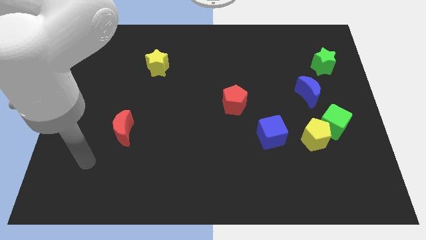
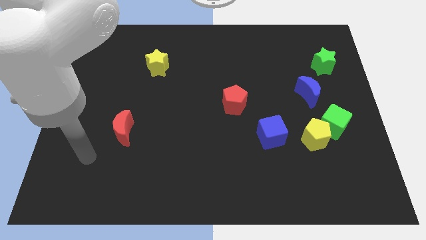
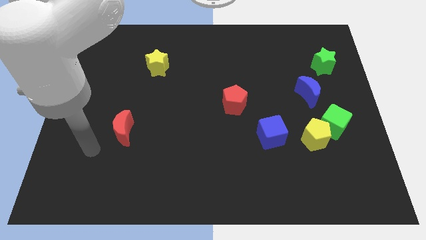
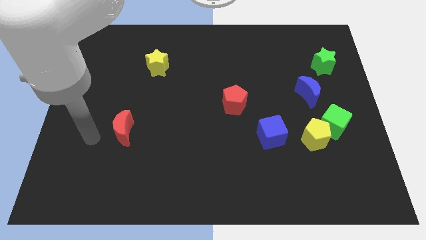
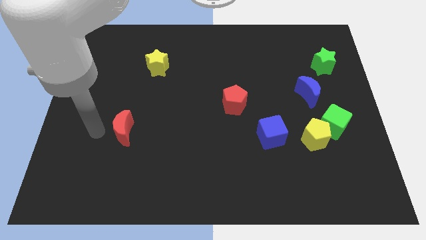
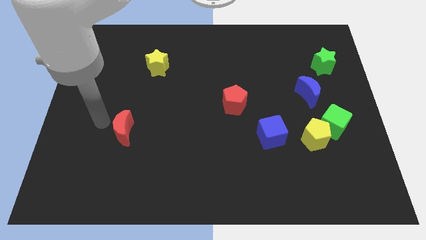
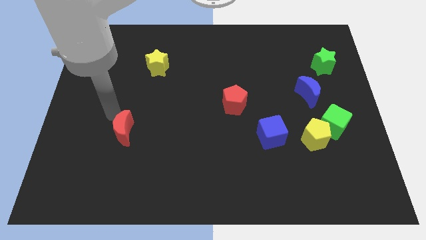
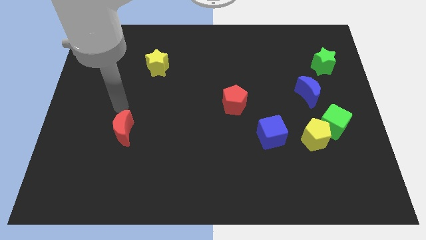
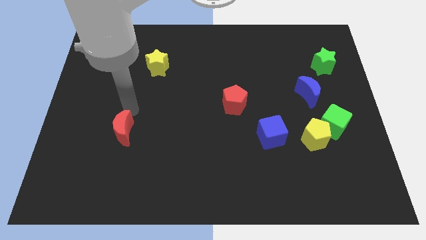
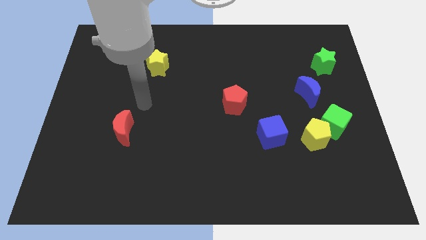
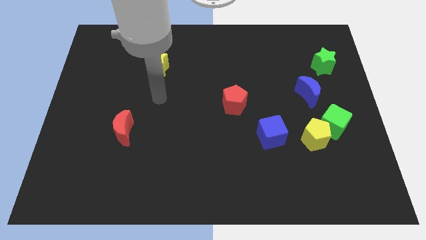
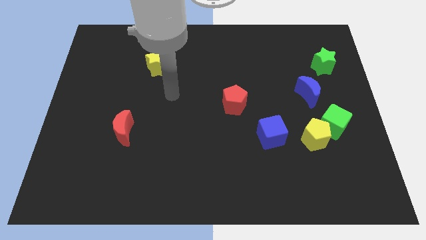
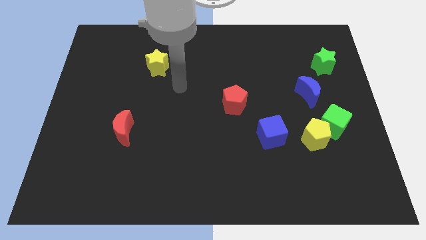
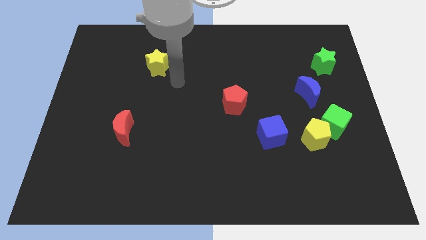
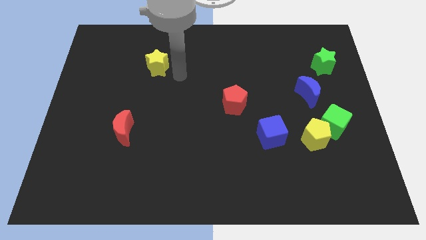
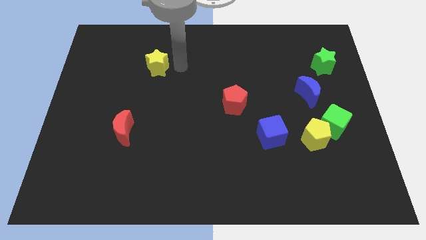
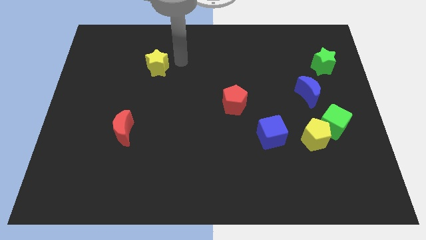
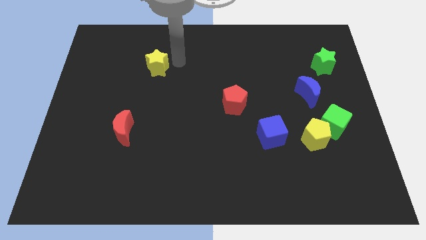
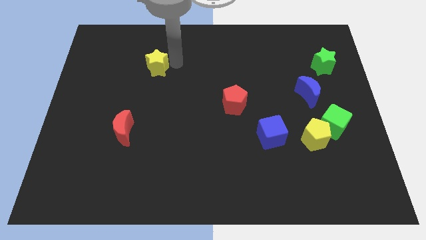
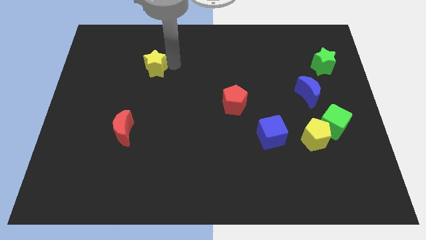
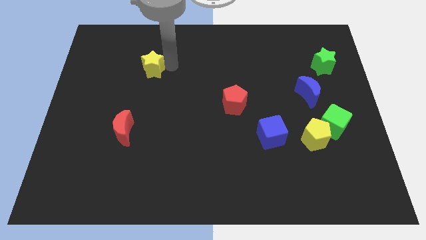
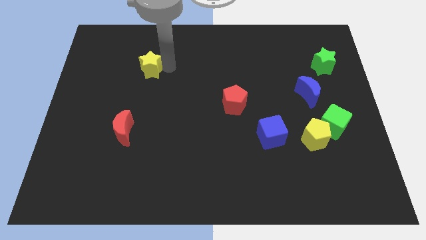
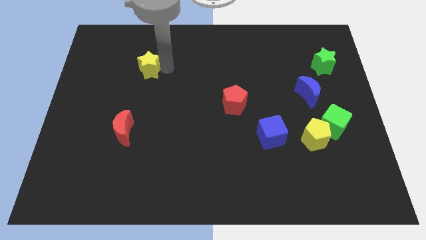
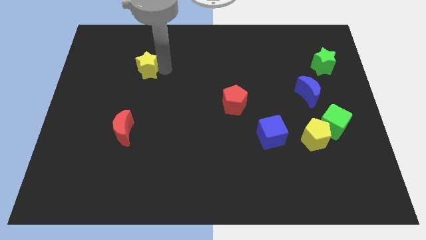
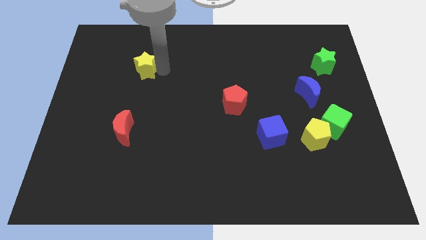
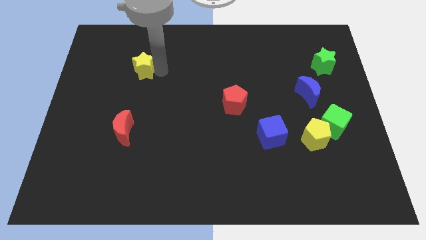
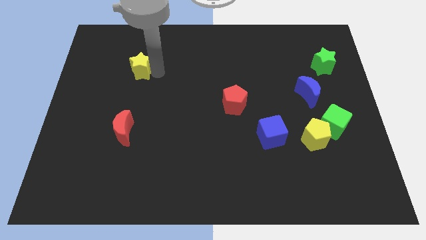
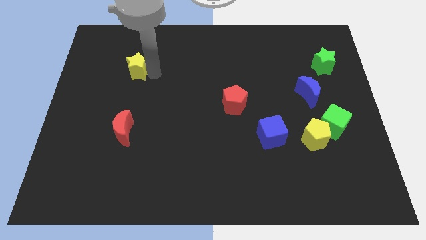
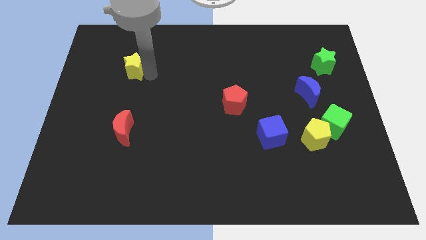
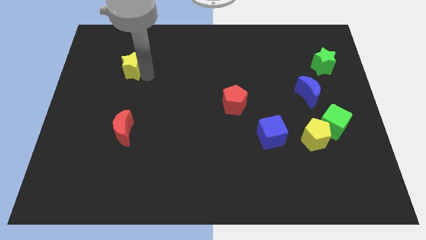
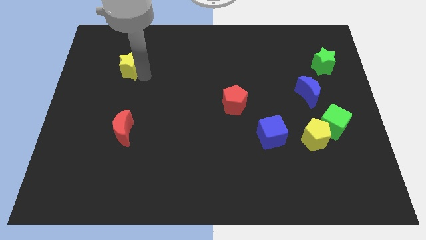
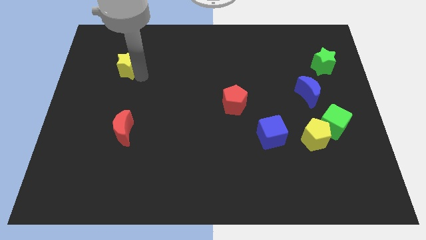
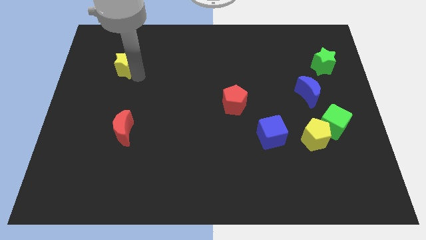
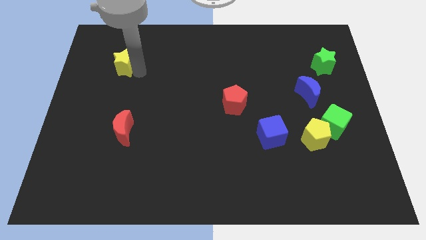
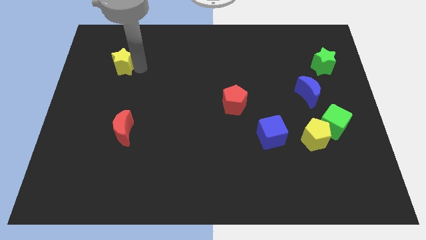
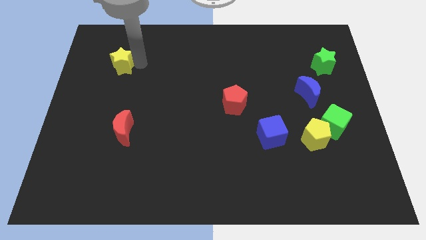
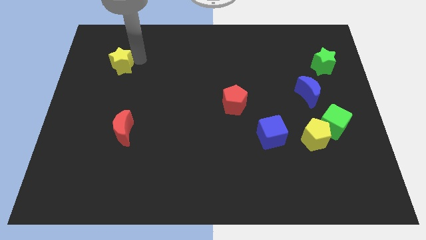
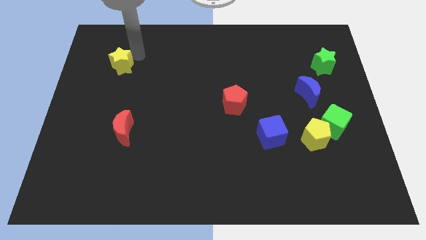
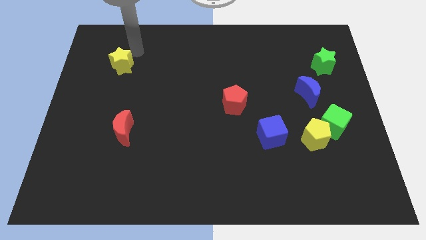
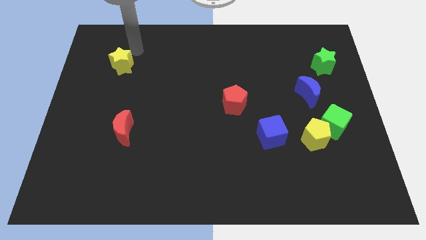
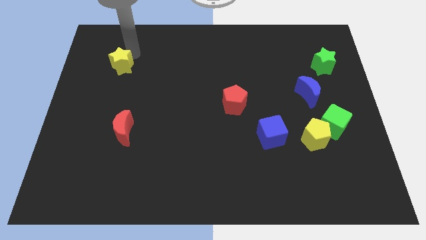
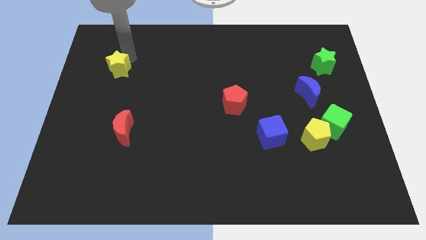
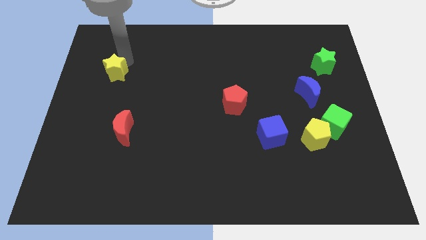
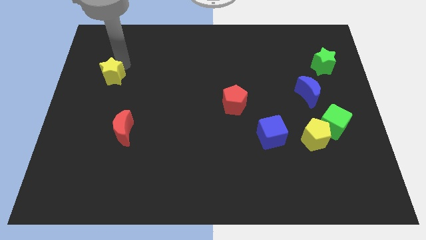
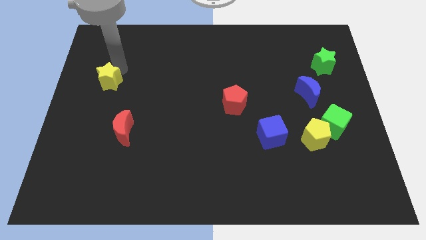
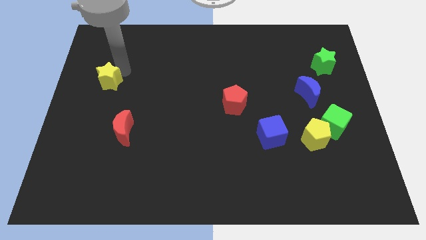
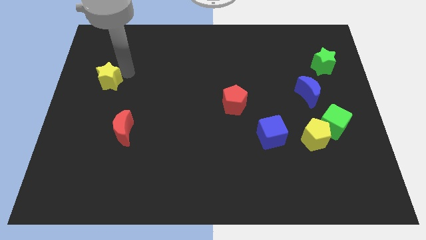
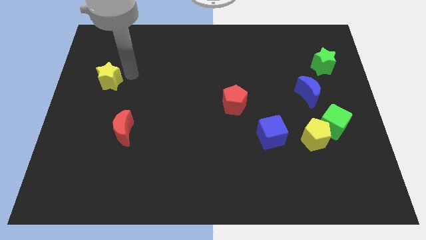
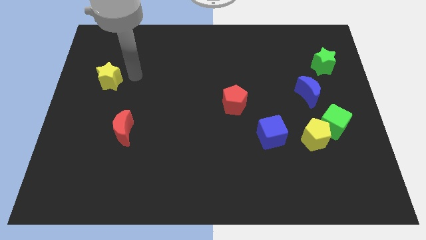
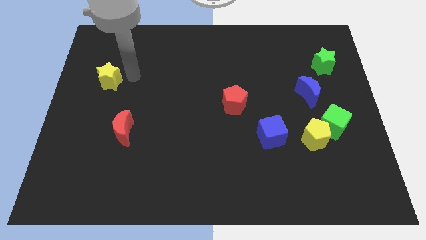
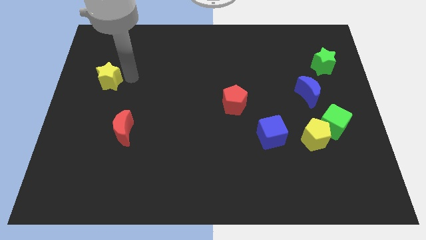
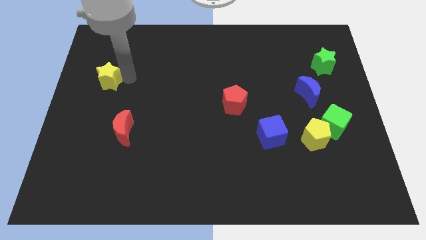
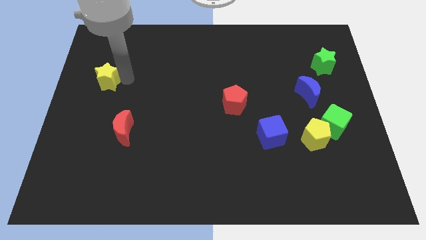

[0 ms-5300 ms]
slide the yellow star to the left side

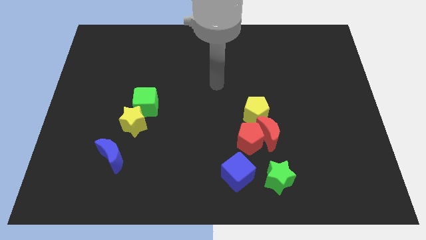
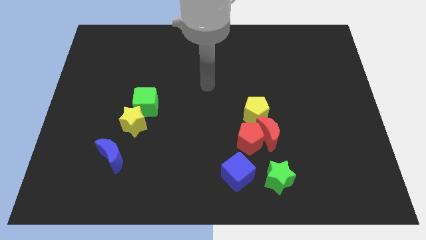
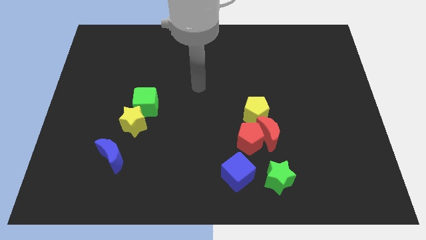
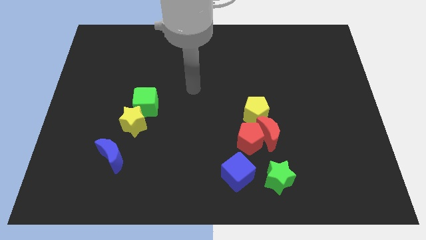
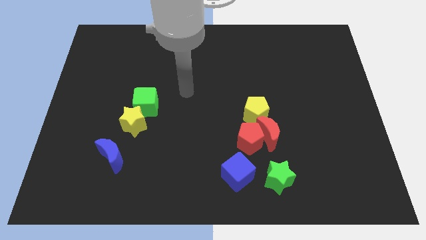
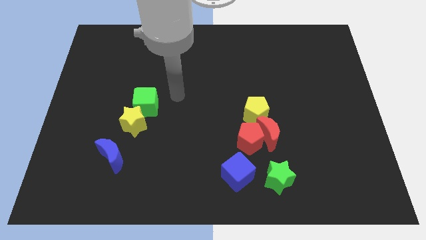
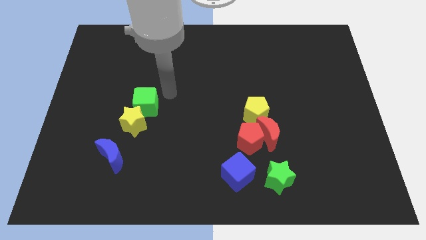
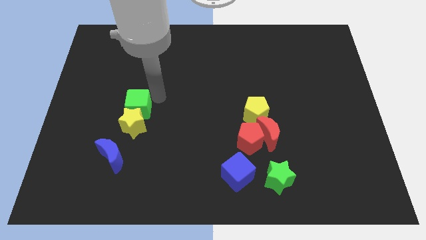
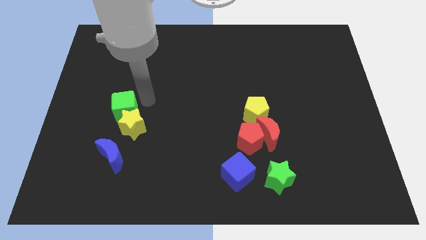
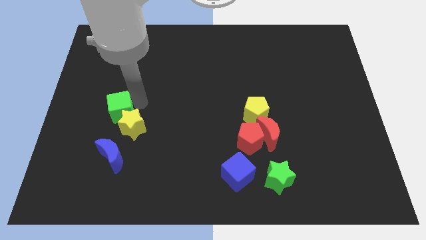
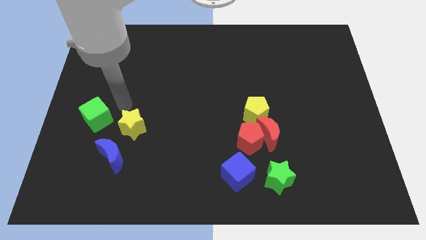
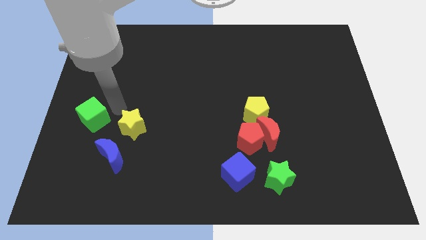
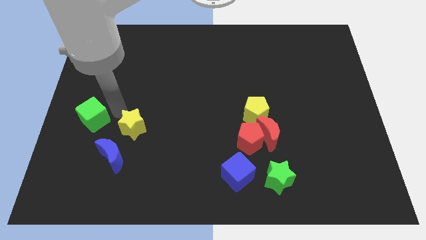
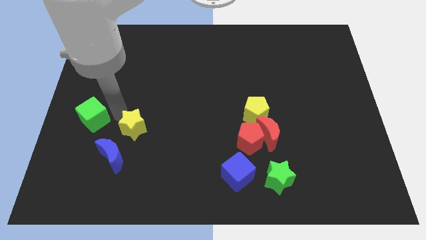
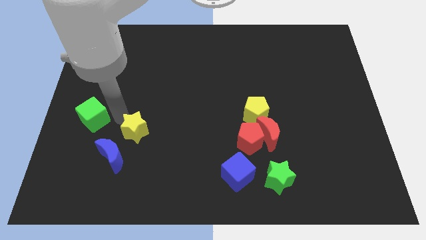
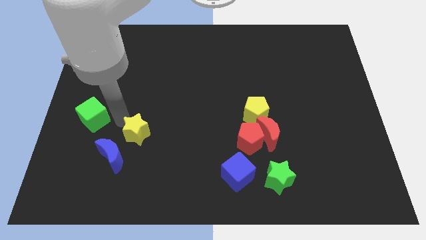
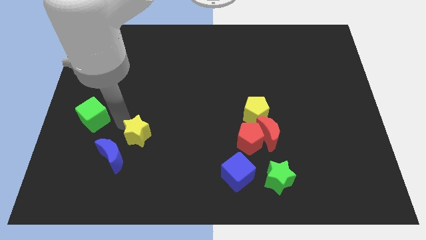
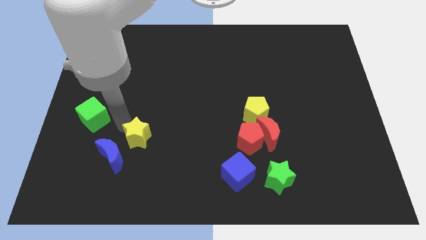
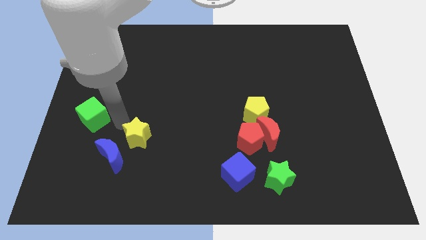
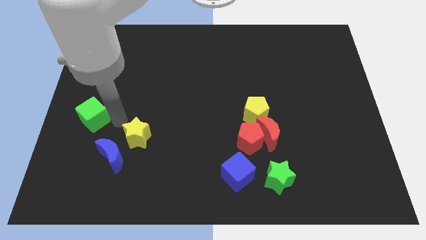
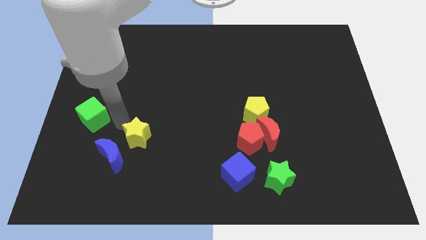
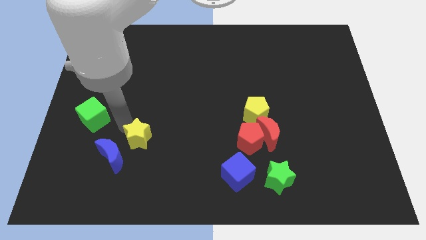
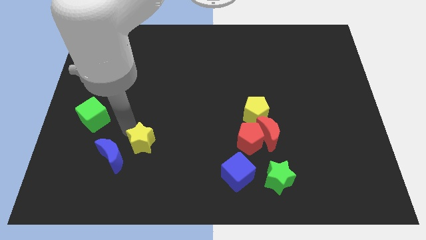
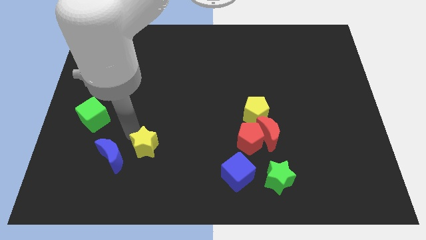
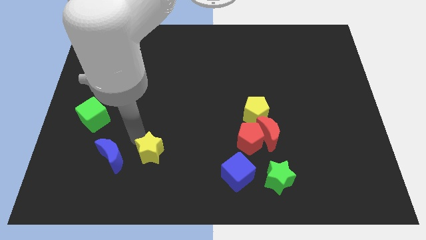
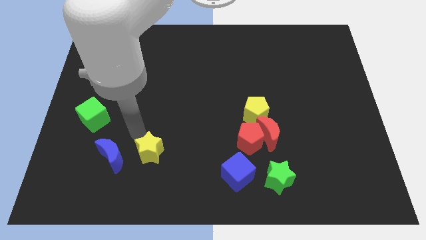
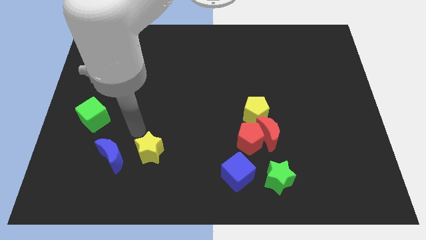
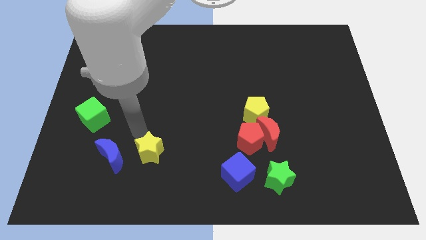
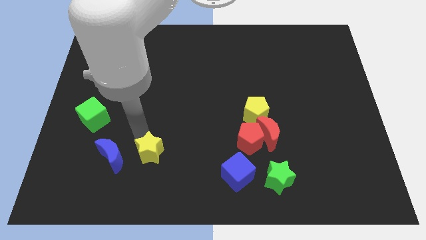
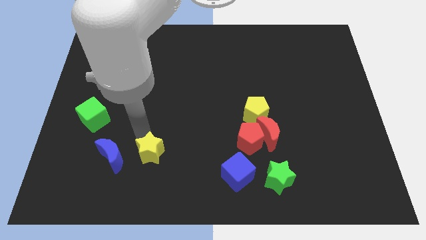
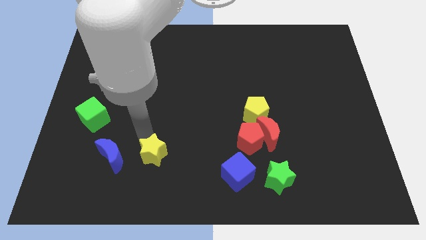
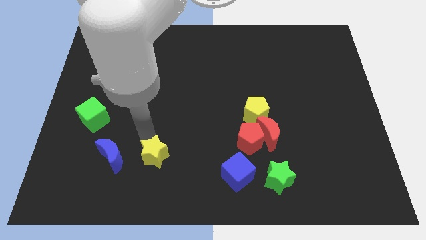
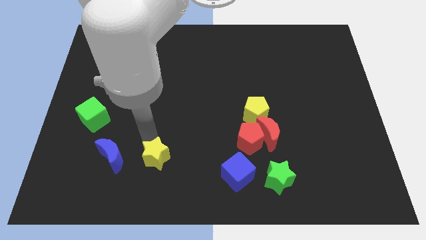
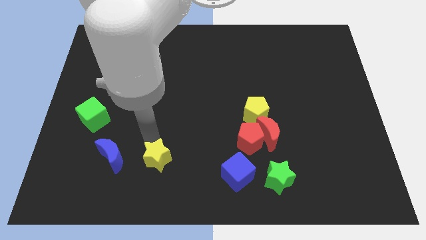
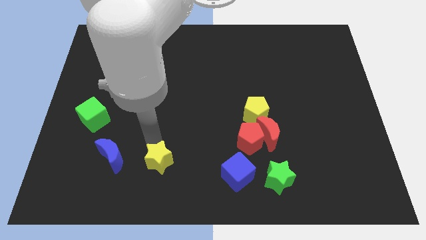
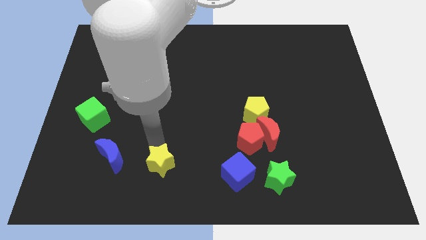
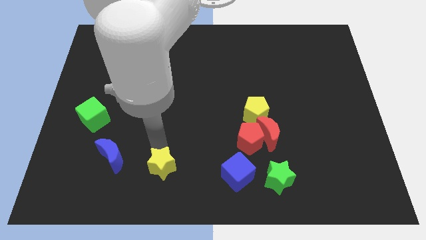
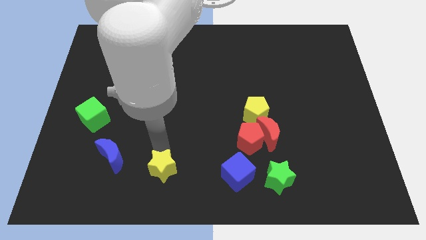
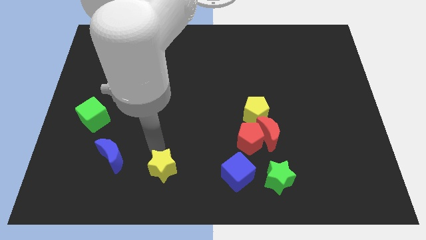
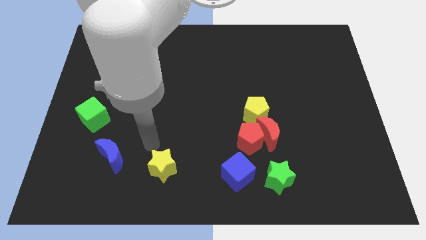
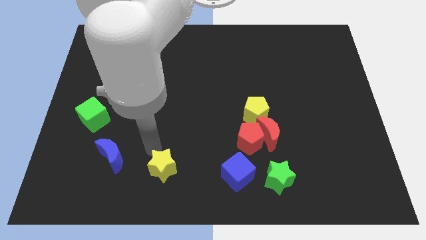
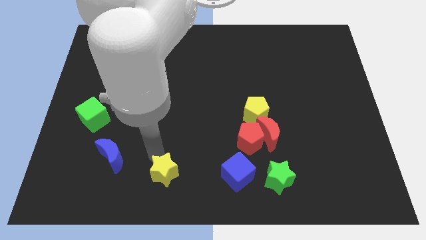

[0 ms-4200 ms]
move the yellow star to the bottom
